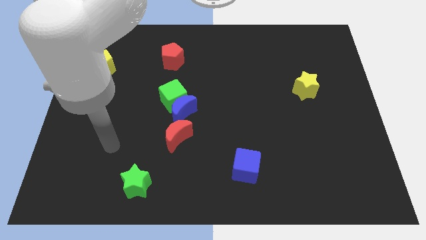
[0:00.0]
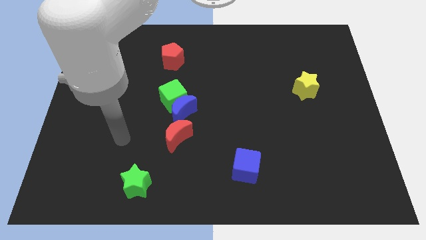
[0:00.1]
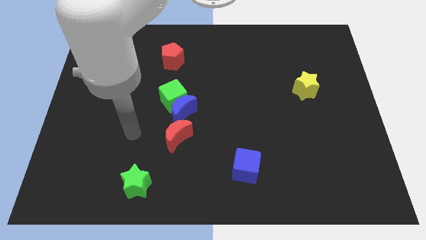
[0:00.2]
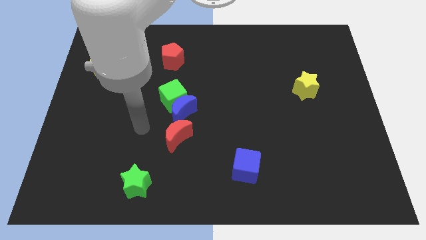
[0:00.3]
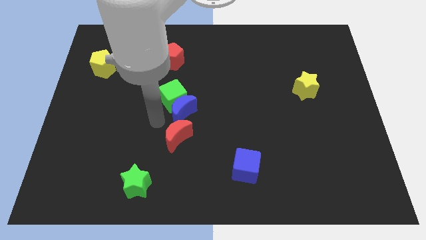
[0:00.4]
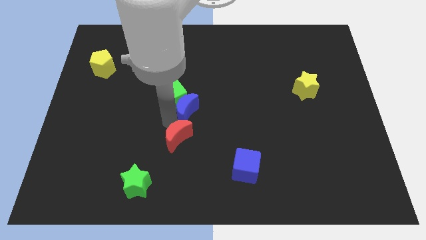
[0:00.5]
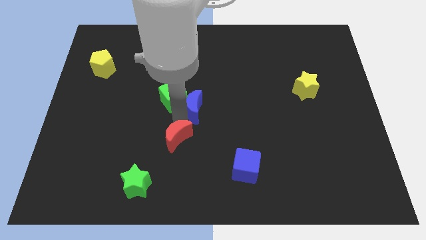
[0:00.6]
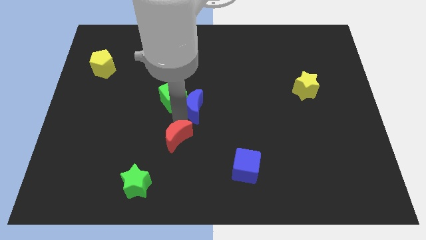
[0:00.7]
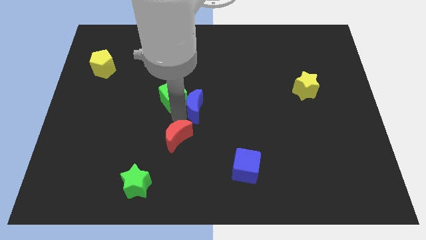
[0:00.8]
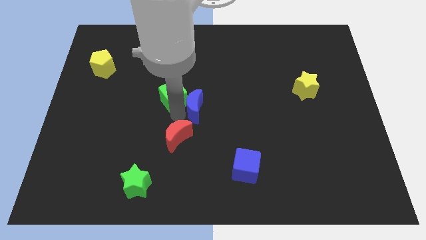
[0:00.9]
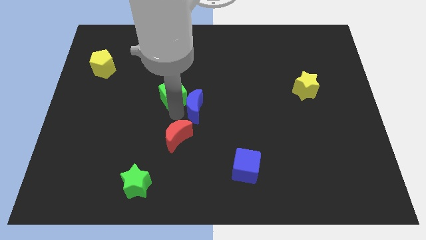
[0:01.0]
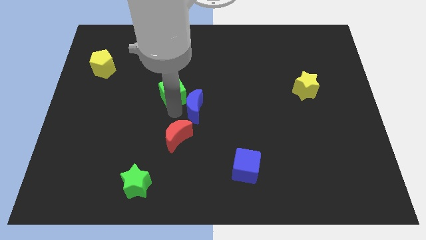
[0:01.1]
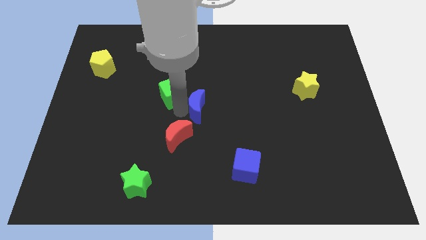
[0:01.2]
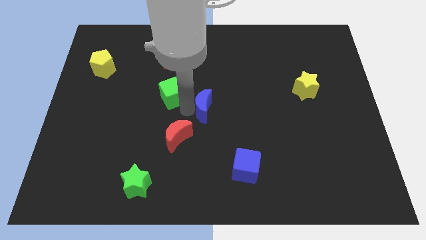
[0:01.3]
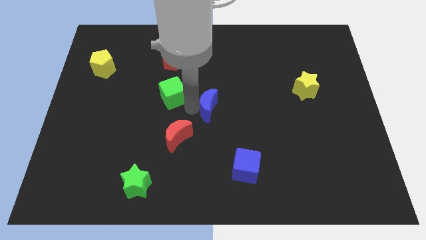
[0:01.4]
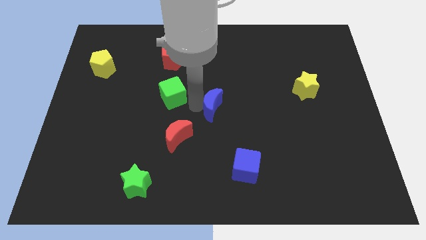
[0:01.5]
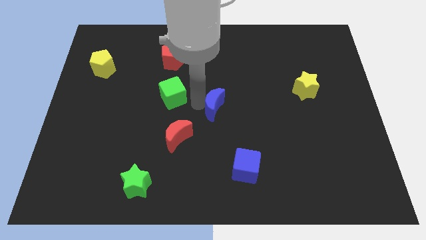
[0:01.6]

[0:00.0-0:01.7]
move the green cube away from the blue moon

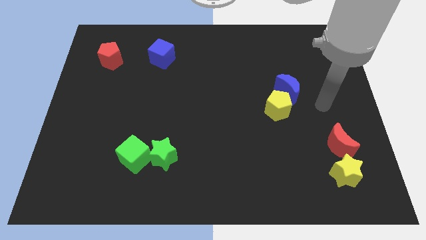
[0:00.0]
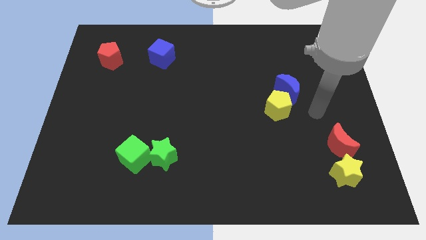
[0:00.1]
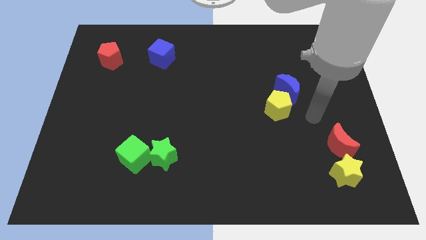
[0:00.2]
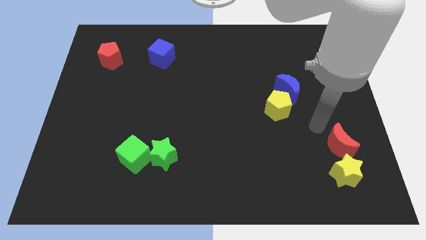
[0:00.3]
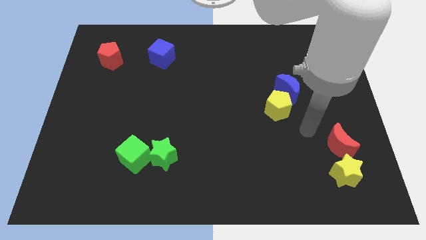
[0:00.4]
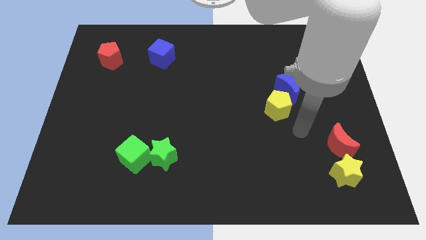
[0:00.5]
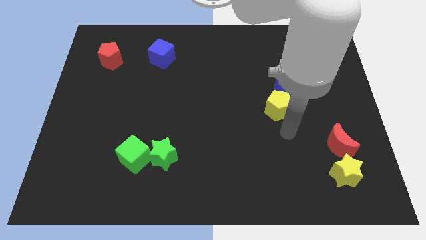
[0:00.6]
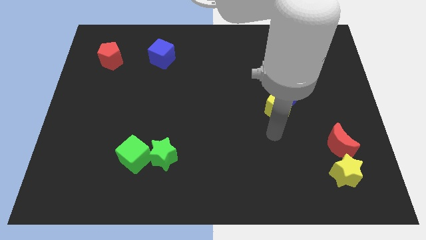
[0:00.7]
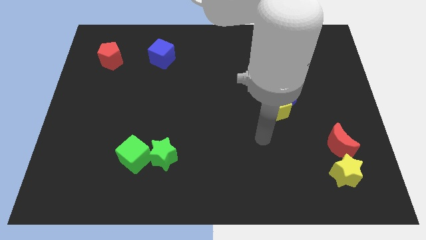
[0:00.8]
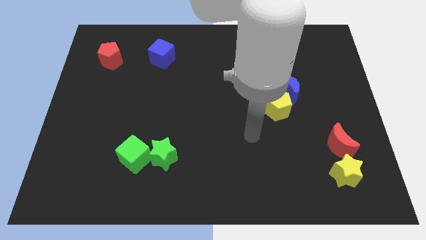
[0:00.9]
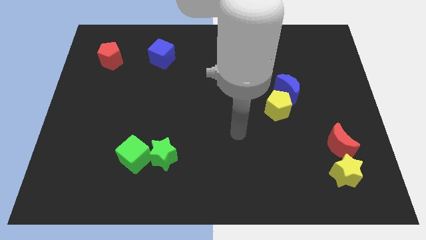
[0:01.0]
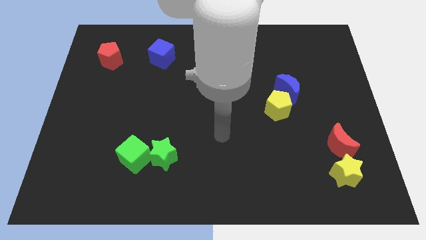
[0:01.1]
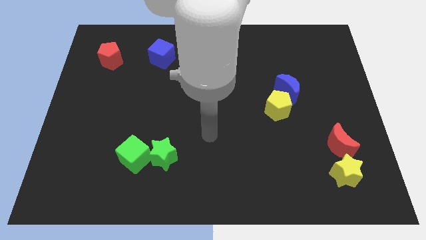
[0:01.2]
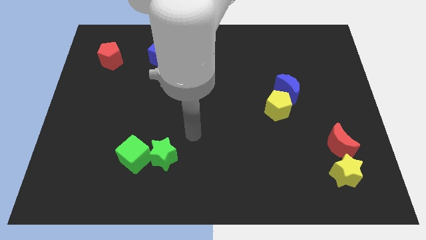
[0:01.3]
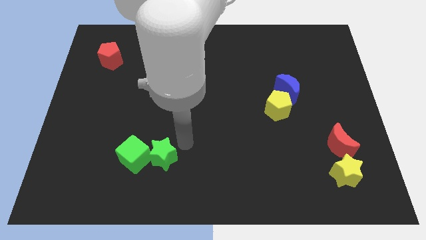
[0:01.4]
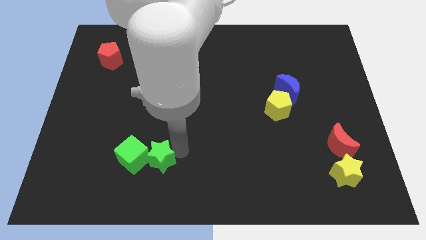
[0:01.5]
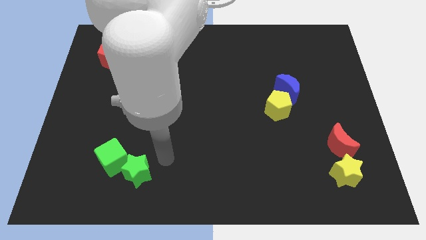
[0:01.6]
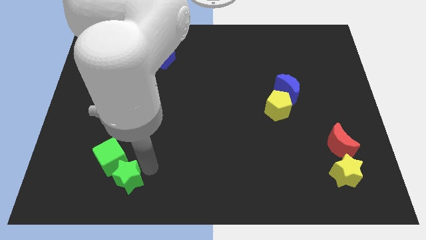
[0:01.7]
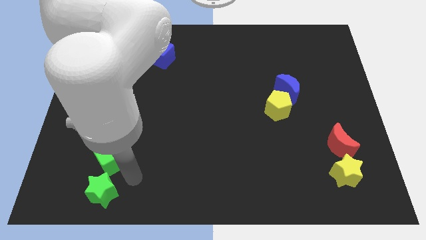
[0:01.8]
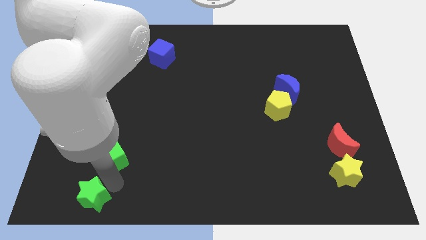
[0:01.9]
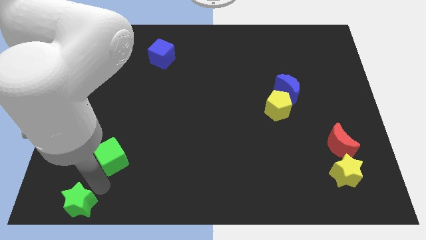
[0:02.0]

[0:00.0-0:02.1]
move the green cube away from the green star

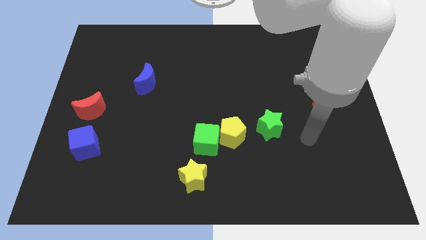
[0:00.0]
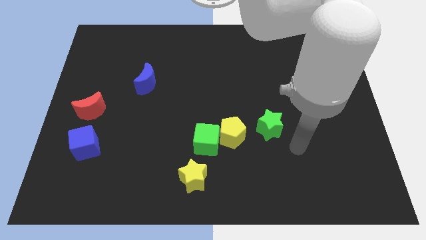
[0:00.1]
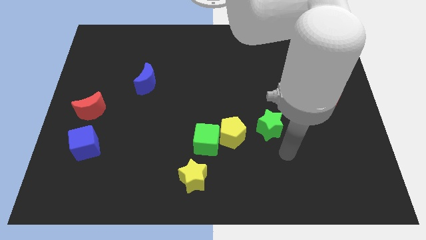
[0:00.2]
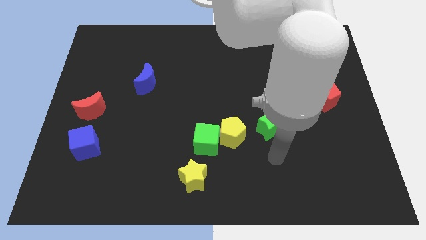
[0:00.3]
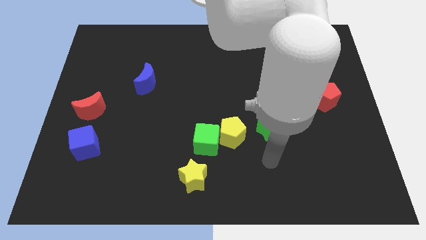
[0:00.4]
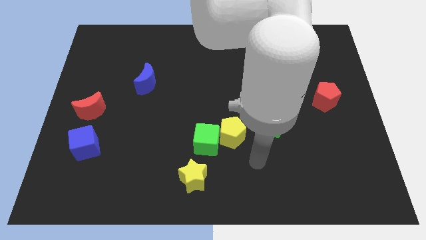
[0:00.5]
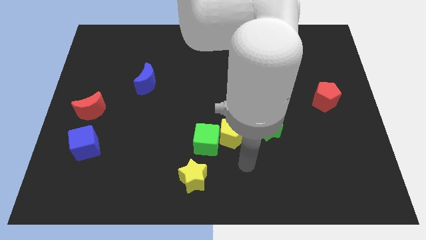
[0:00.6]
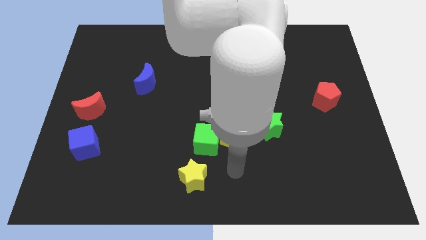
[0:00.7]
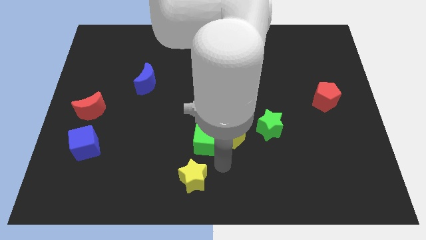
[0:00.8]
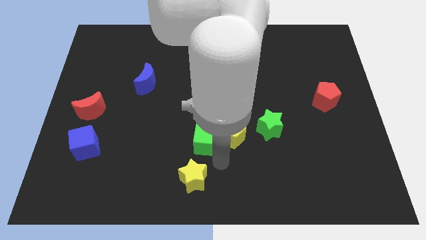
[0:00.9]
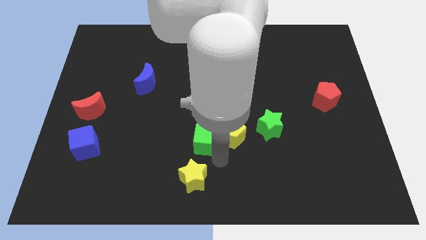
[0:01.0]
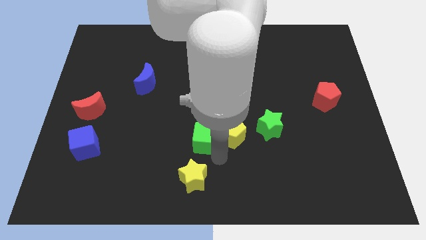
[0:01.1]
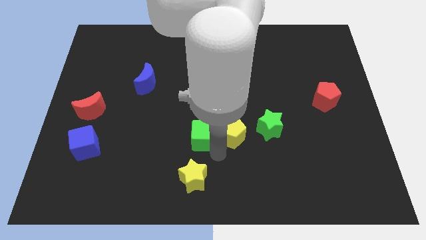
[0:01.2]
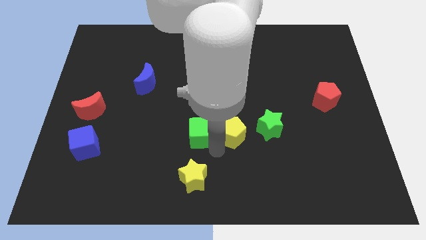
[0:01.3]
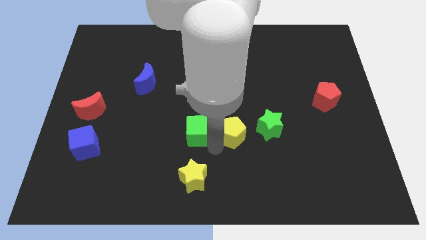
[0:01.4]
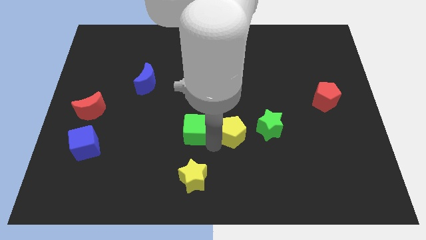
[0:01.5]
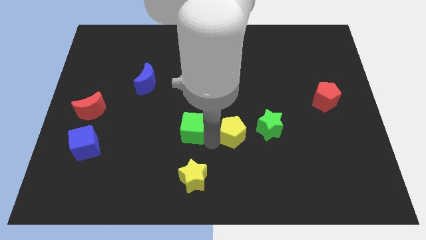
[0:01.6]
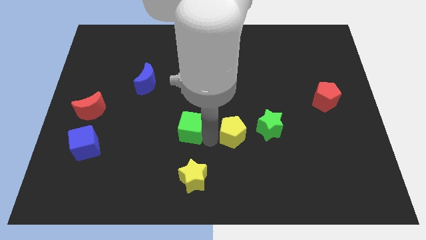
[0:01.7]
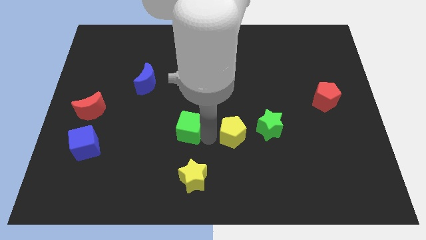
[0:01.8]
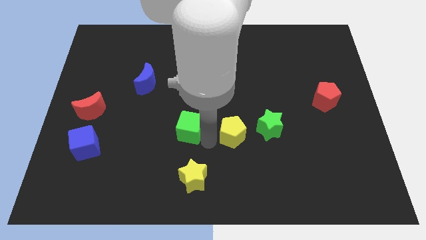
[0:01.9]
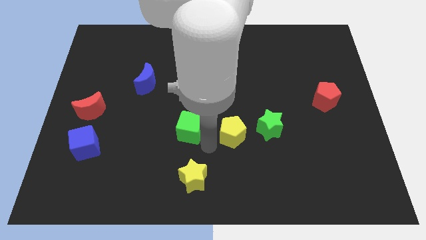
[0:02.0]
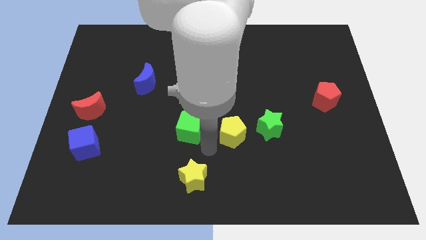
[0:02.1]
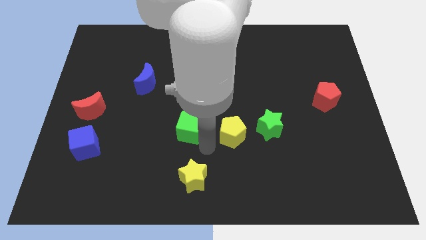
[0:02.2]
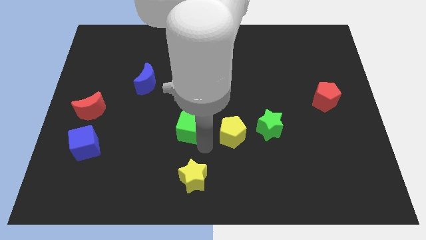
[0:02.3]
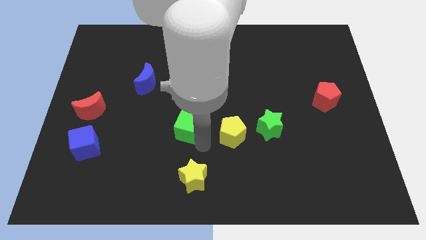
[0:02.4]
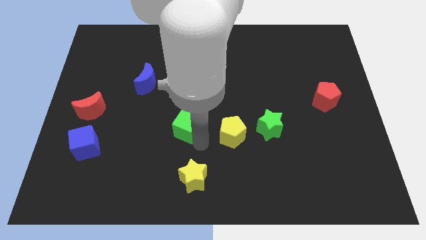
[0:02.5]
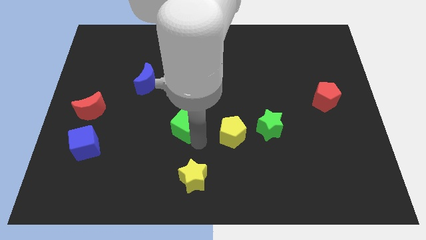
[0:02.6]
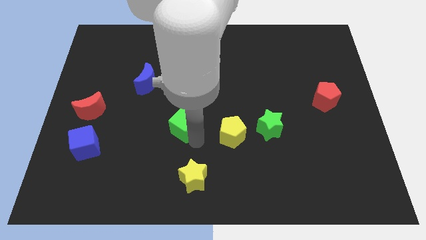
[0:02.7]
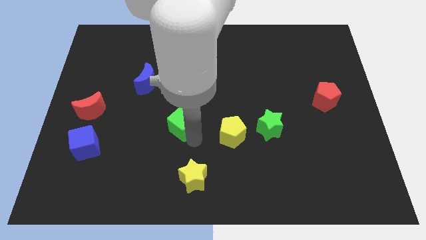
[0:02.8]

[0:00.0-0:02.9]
separate the green cube from the yellow pentagon and yellow star

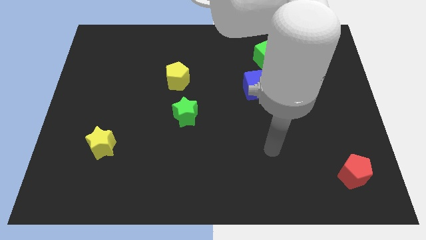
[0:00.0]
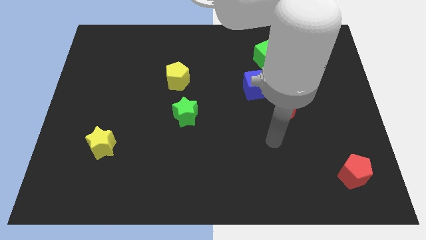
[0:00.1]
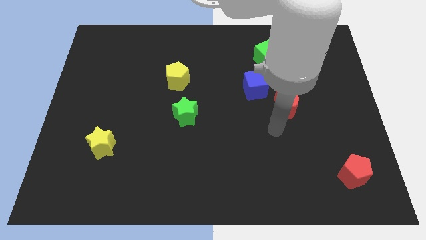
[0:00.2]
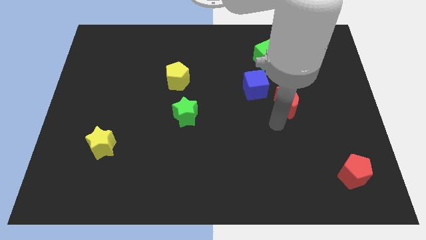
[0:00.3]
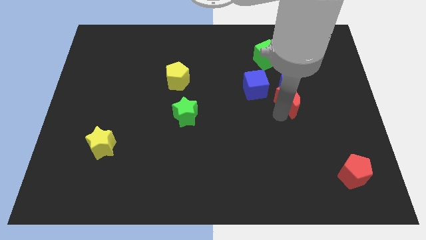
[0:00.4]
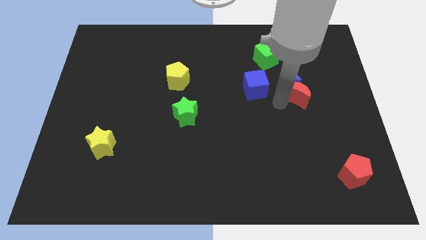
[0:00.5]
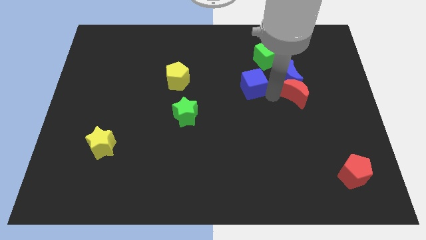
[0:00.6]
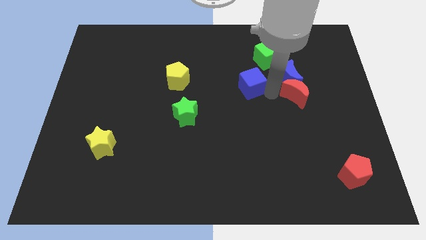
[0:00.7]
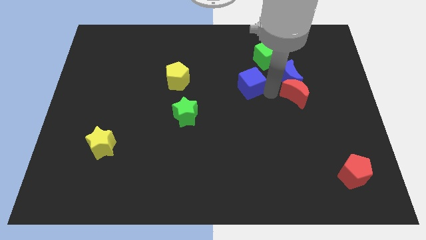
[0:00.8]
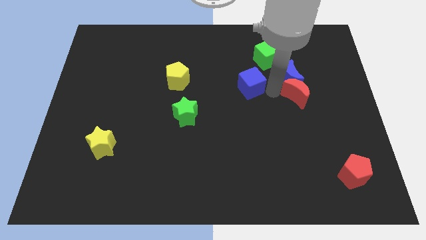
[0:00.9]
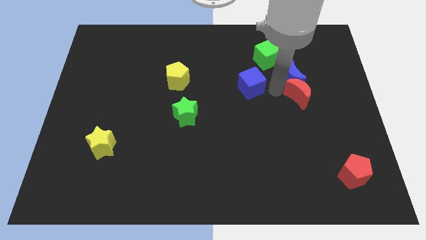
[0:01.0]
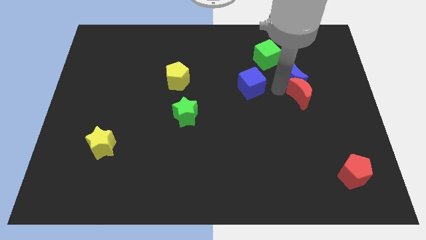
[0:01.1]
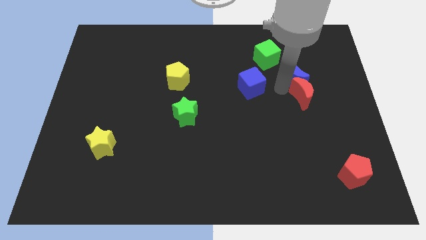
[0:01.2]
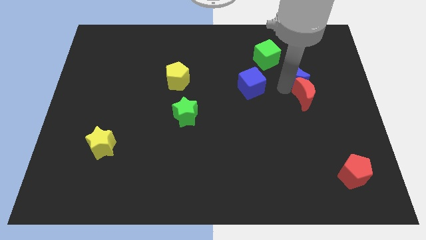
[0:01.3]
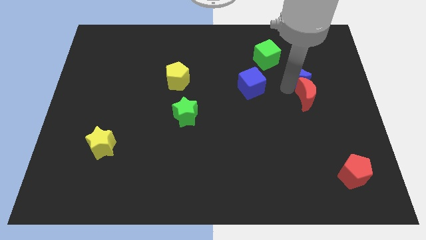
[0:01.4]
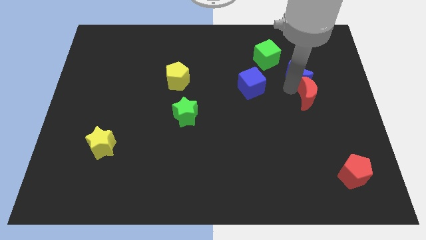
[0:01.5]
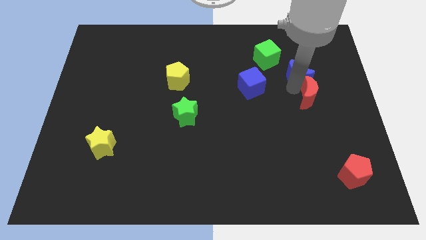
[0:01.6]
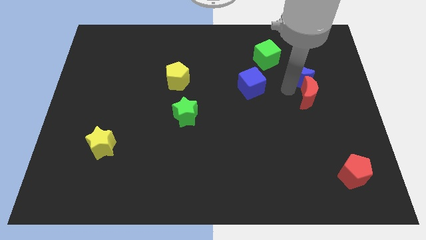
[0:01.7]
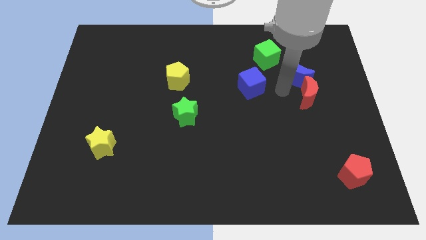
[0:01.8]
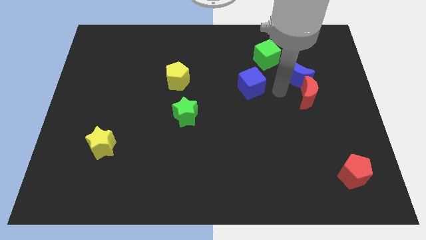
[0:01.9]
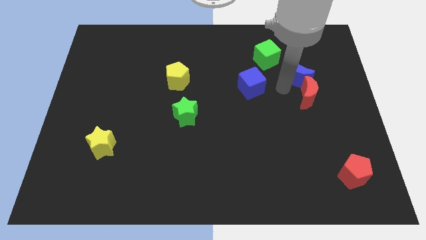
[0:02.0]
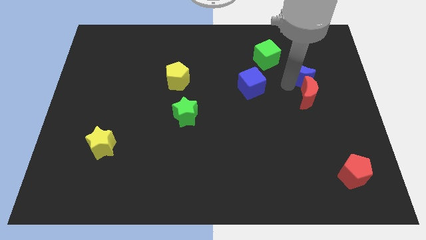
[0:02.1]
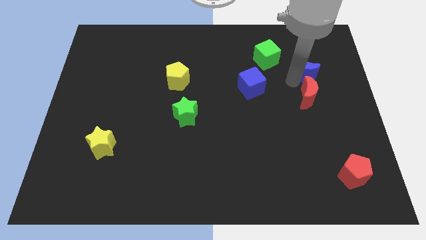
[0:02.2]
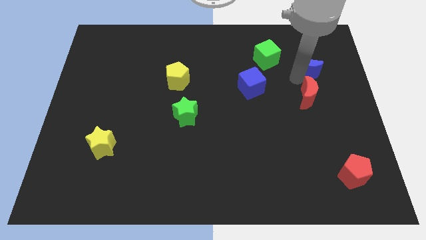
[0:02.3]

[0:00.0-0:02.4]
move the blue moon away from the red moon and blue cube

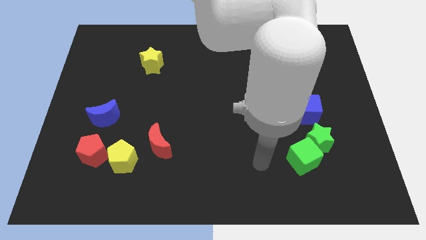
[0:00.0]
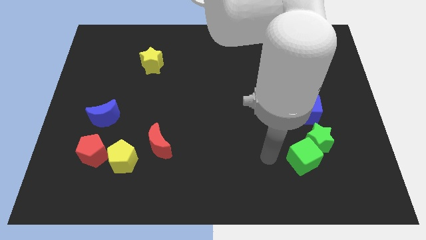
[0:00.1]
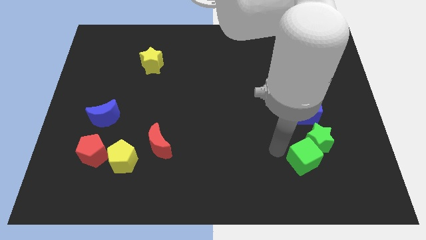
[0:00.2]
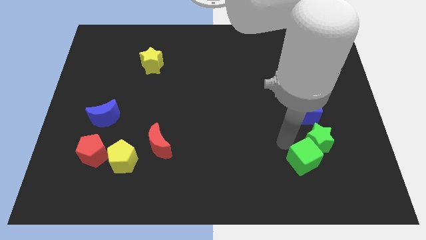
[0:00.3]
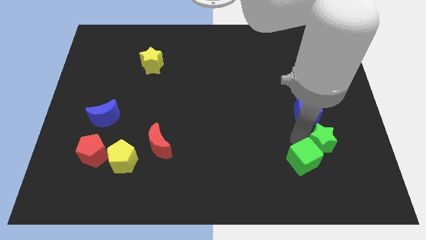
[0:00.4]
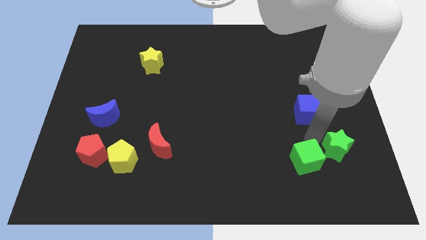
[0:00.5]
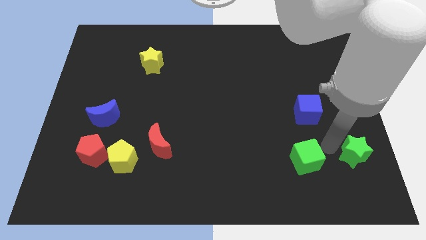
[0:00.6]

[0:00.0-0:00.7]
separate the green cube from the green star
